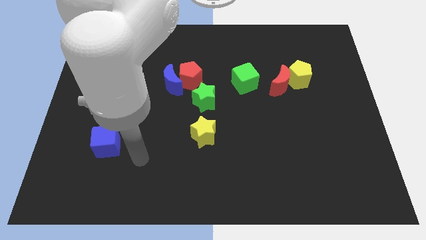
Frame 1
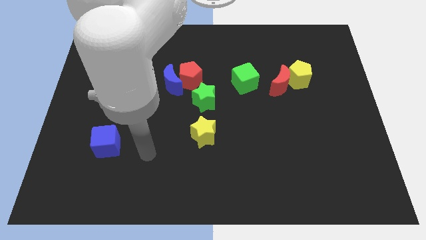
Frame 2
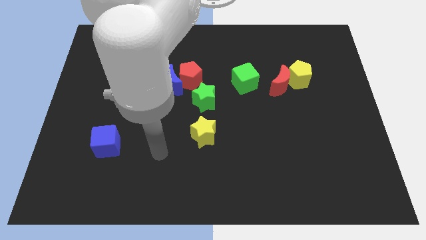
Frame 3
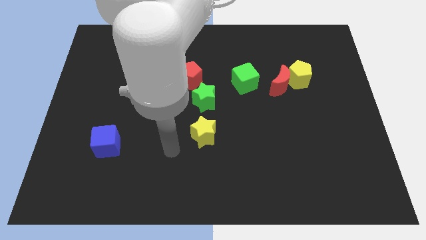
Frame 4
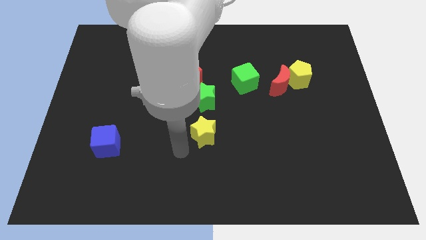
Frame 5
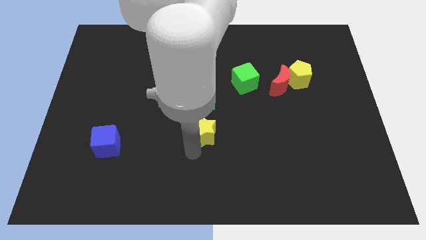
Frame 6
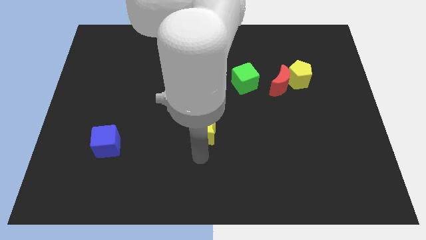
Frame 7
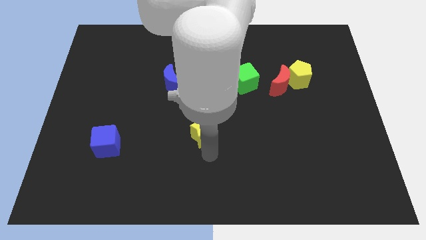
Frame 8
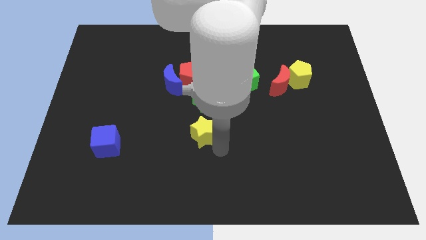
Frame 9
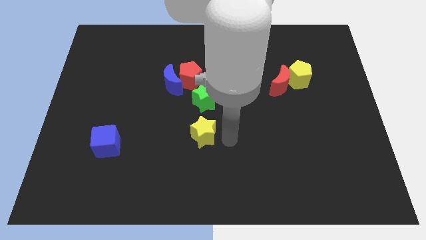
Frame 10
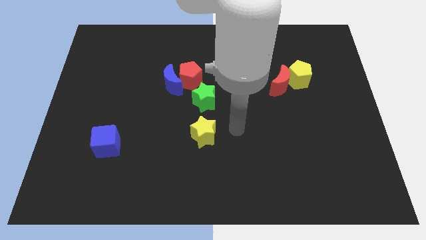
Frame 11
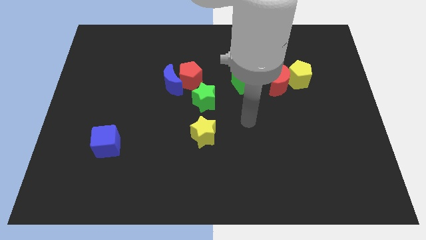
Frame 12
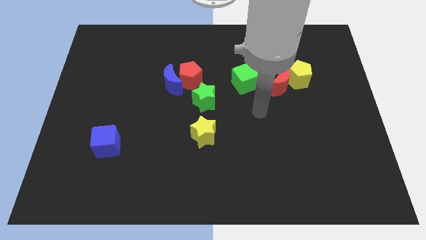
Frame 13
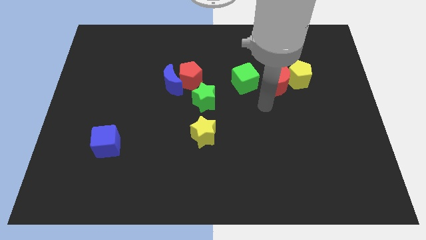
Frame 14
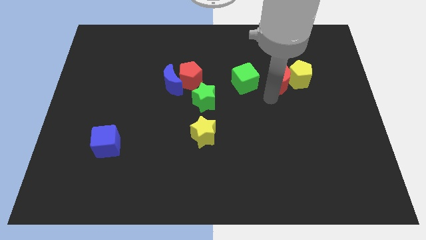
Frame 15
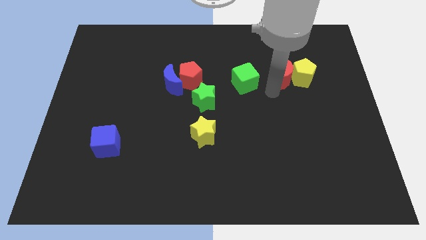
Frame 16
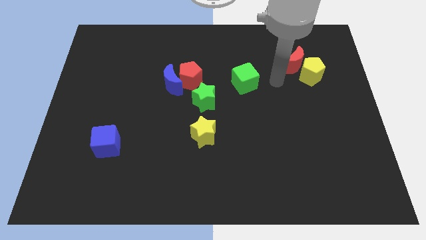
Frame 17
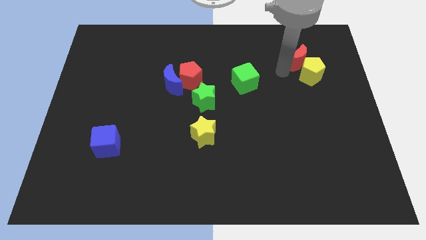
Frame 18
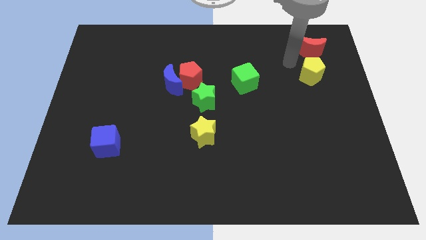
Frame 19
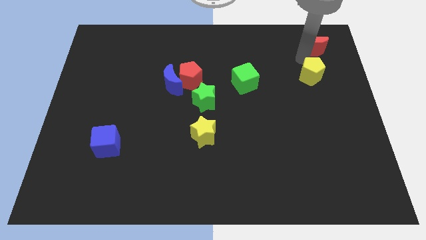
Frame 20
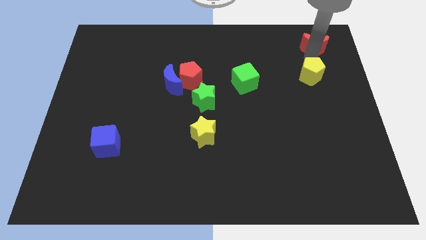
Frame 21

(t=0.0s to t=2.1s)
separate the yellow pentagon from the red moon

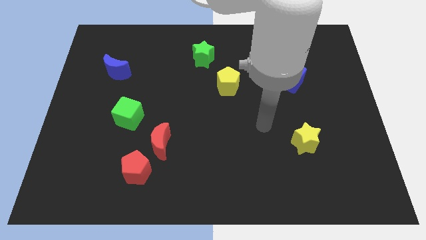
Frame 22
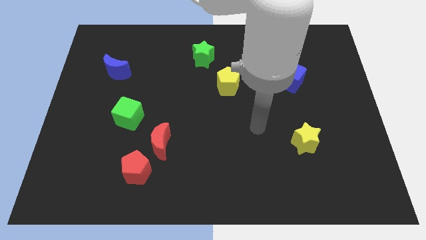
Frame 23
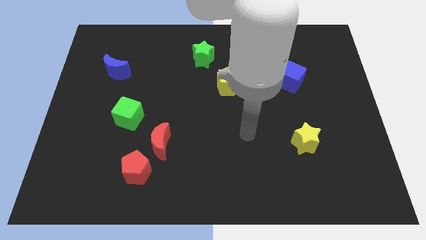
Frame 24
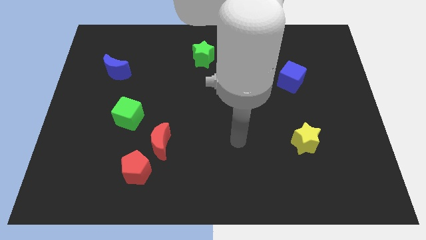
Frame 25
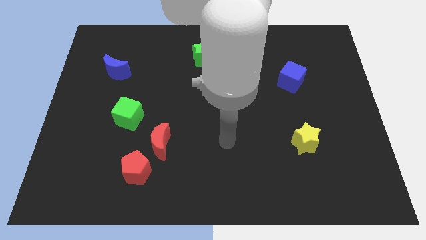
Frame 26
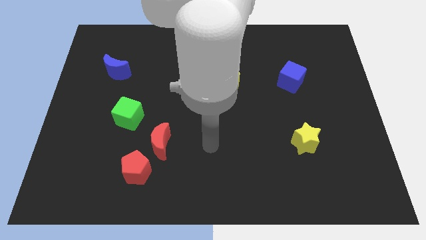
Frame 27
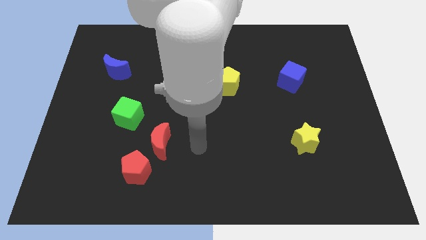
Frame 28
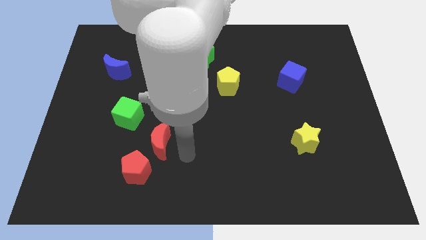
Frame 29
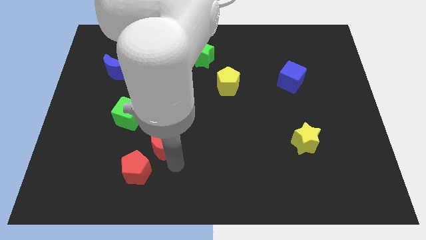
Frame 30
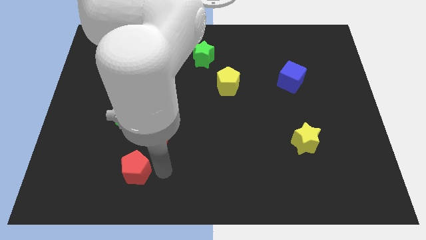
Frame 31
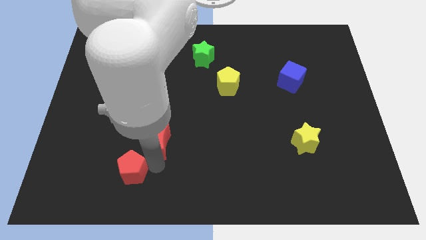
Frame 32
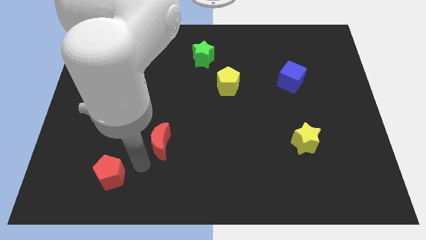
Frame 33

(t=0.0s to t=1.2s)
pull the red moon apart from the red pentagon

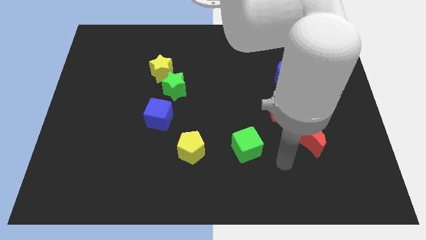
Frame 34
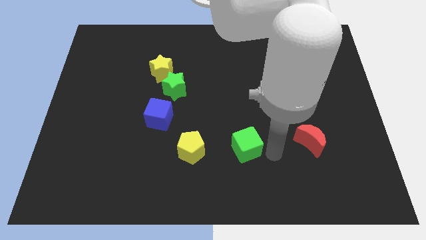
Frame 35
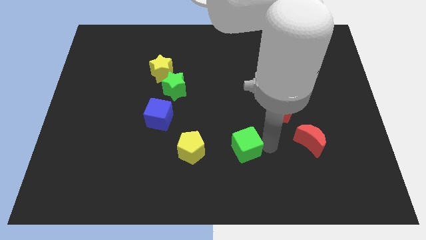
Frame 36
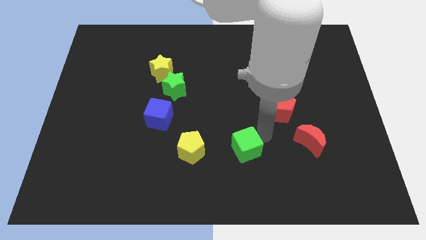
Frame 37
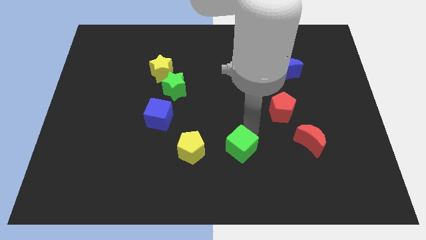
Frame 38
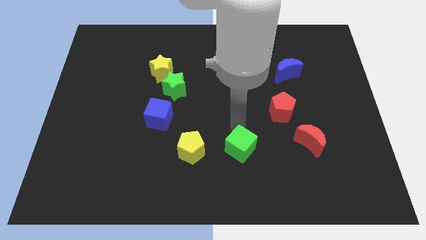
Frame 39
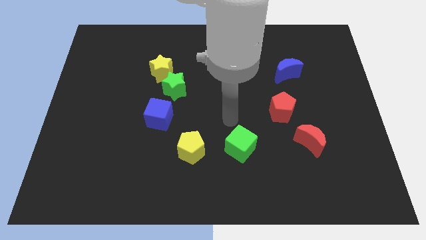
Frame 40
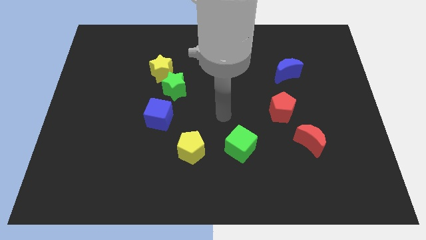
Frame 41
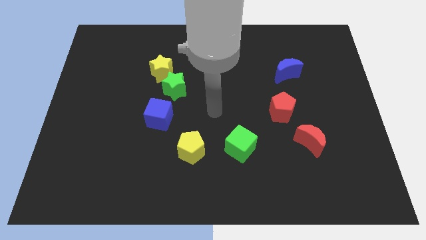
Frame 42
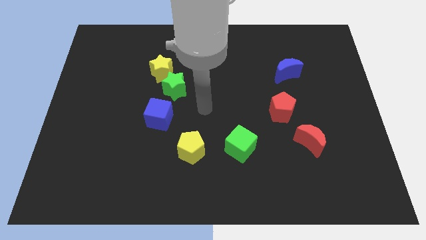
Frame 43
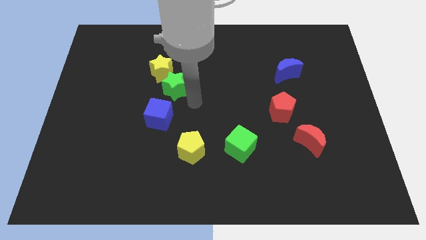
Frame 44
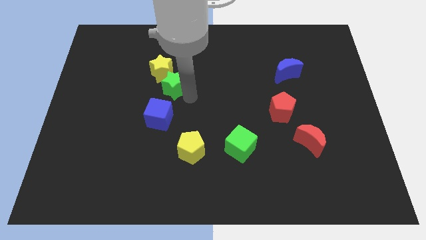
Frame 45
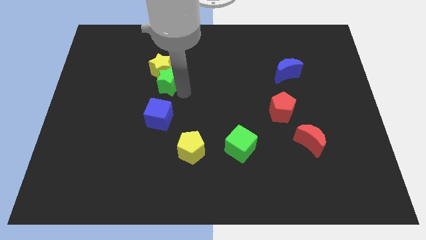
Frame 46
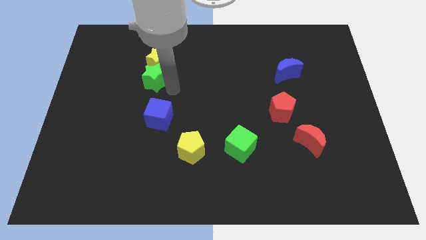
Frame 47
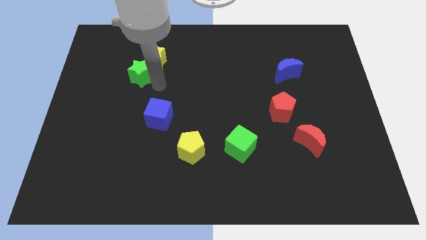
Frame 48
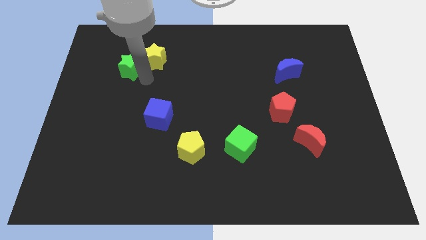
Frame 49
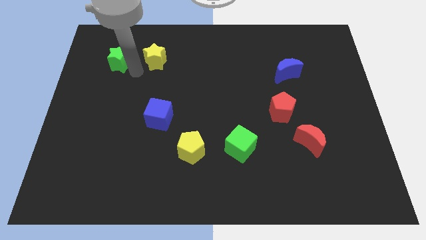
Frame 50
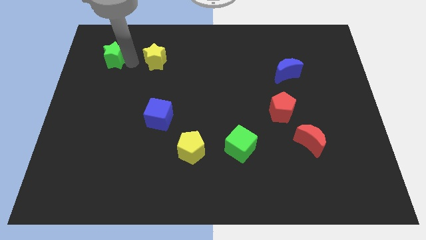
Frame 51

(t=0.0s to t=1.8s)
separate the yellow star from the green star

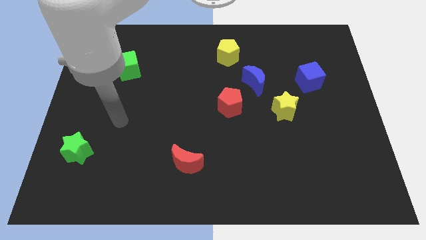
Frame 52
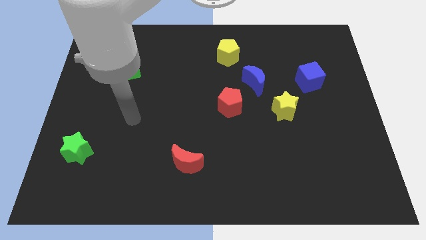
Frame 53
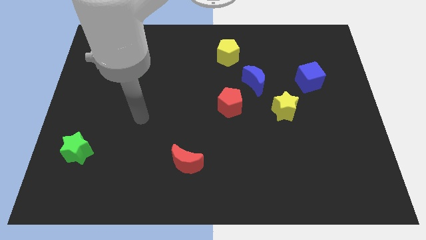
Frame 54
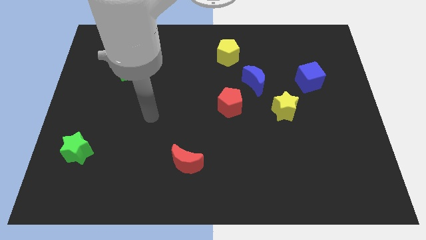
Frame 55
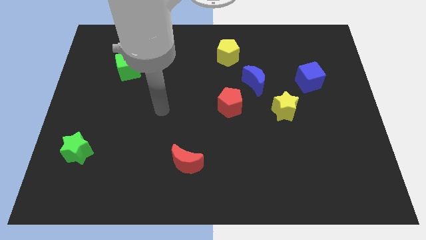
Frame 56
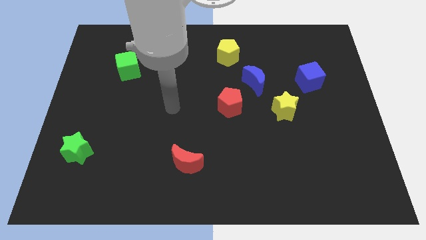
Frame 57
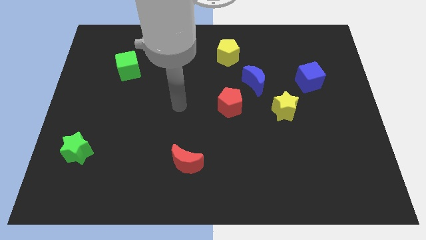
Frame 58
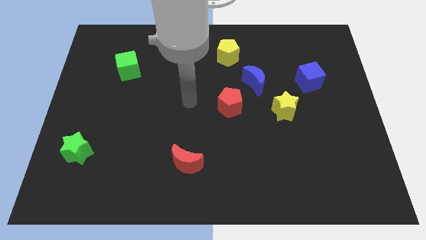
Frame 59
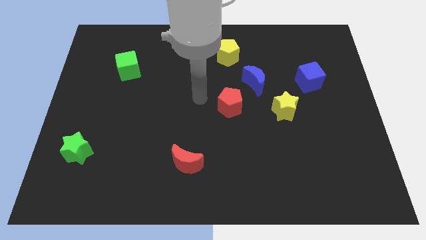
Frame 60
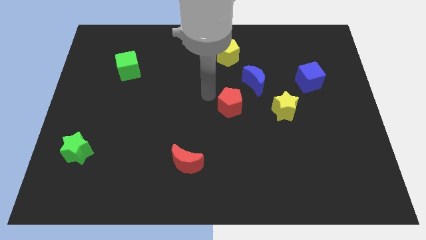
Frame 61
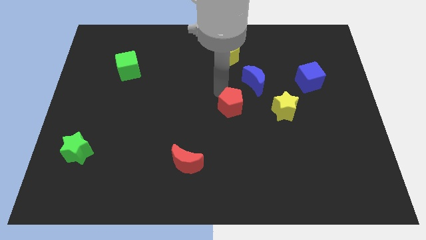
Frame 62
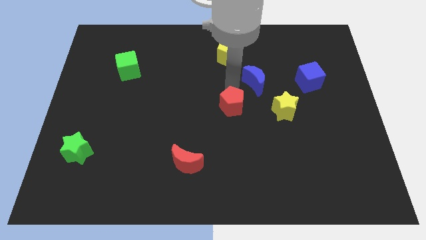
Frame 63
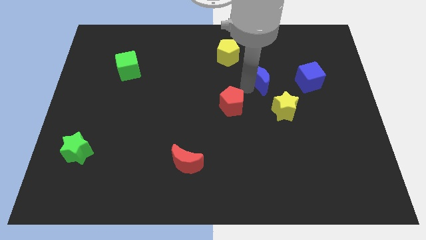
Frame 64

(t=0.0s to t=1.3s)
pull the red pentagon apart from the blue moon

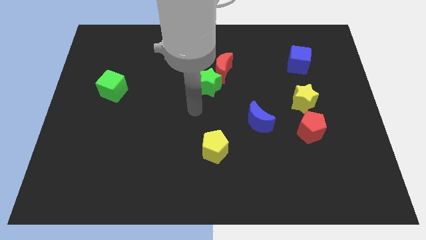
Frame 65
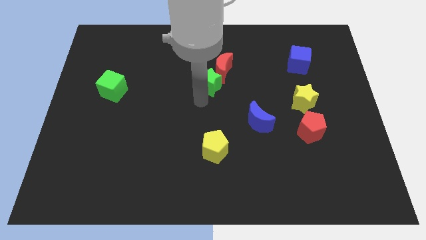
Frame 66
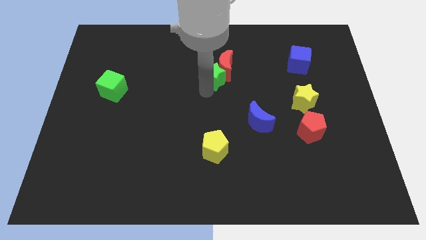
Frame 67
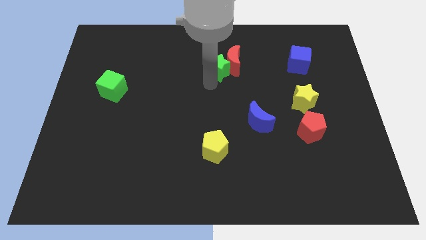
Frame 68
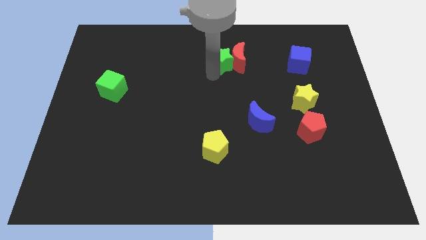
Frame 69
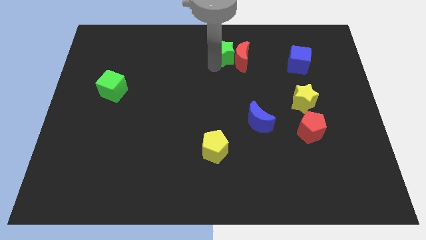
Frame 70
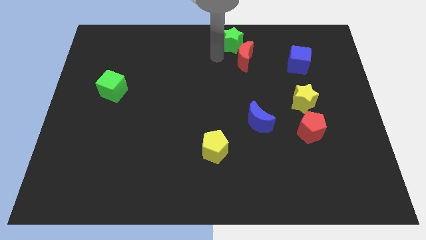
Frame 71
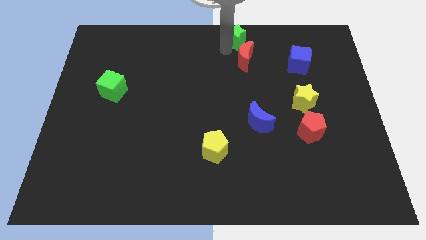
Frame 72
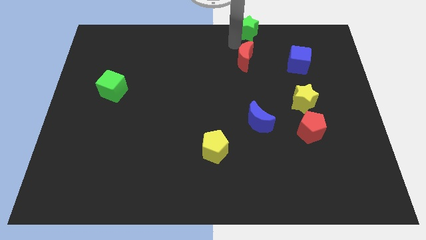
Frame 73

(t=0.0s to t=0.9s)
move the red moon away from the green star

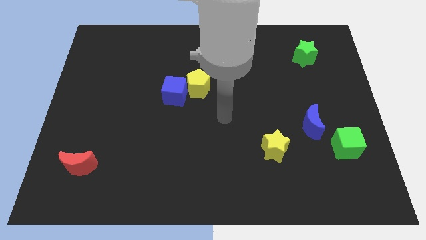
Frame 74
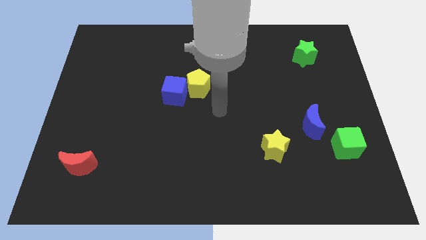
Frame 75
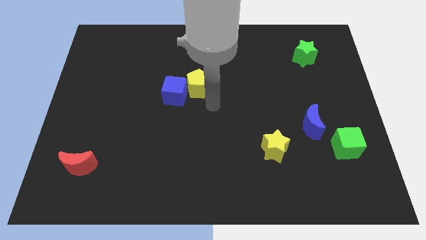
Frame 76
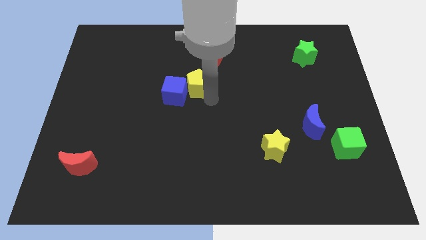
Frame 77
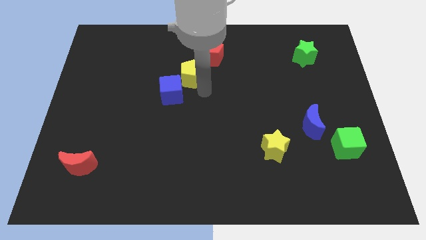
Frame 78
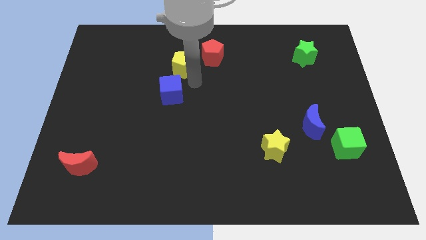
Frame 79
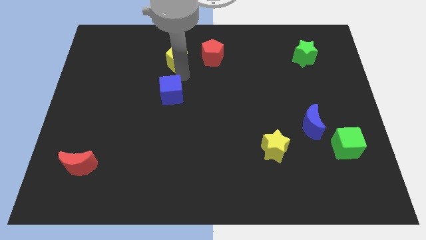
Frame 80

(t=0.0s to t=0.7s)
pull the blue cube apart from the yellow pentagon

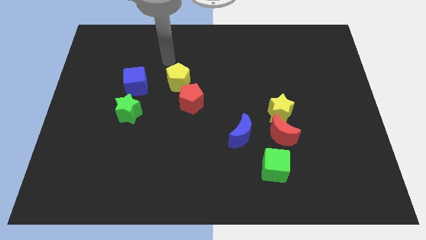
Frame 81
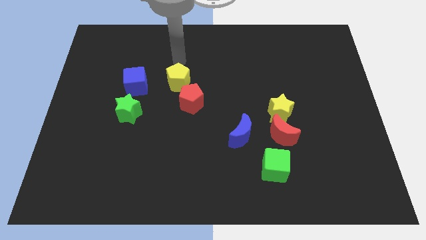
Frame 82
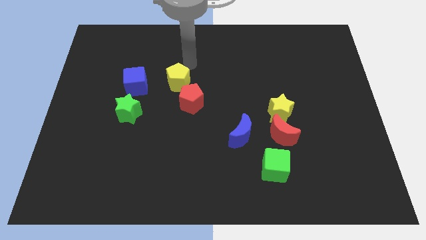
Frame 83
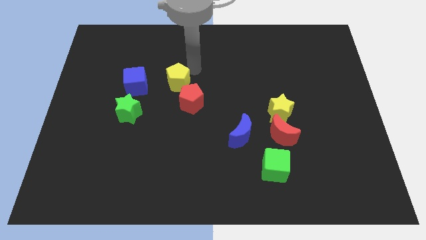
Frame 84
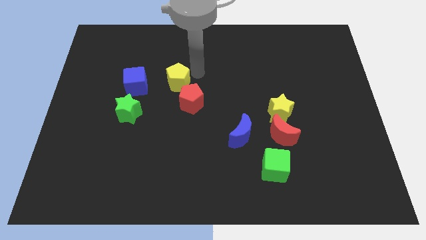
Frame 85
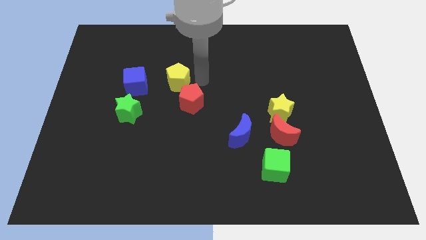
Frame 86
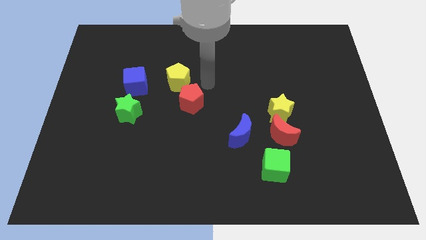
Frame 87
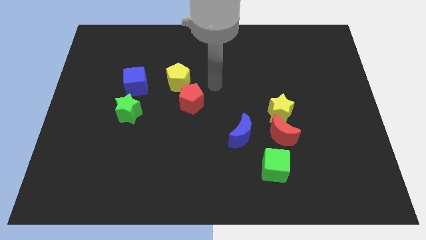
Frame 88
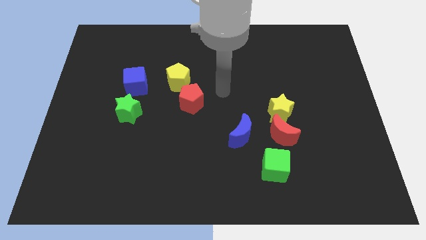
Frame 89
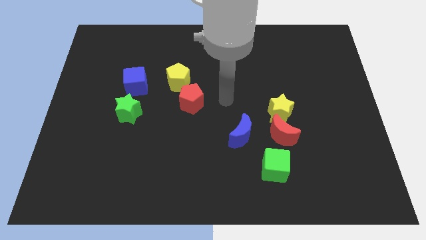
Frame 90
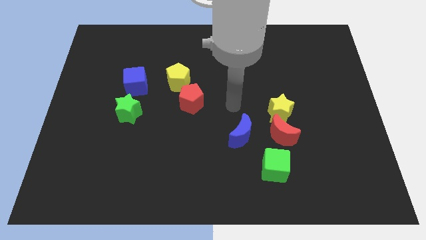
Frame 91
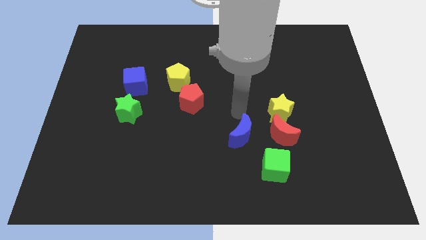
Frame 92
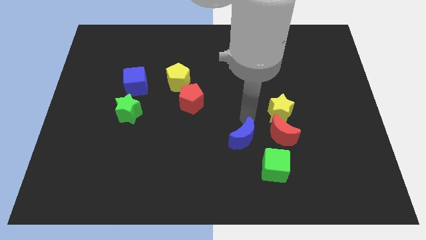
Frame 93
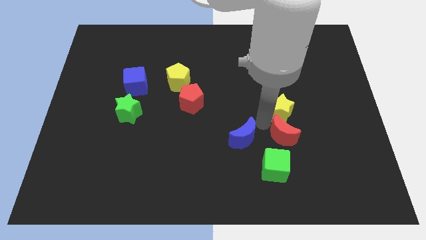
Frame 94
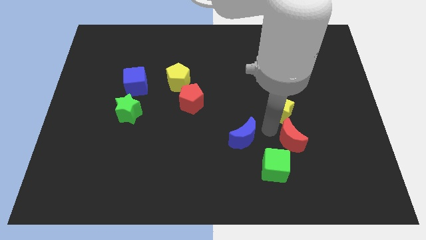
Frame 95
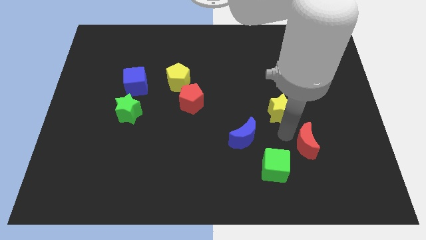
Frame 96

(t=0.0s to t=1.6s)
move the yellow star away from the red moon
